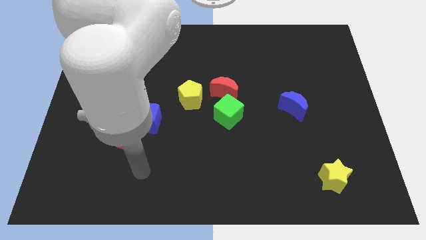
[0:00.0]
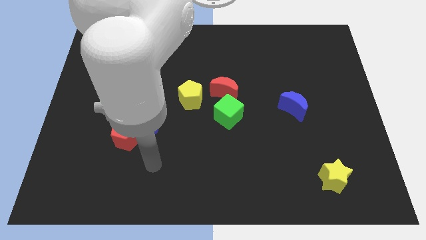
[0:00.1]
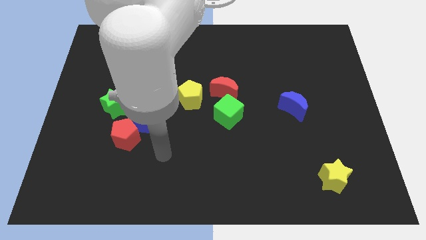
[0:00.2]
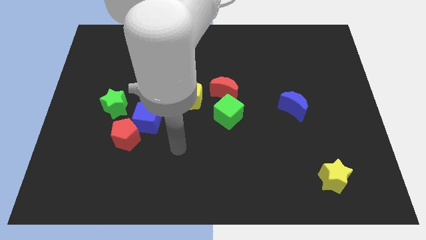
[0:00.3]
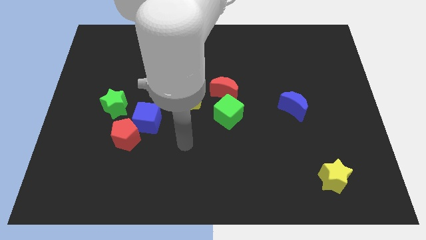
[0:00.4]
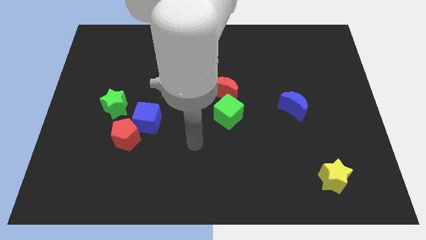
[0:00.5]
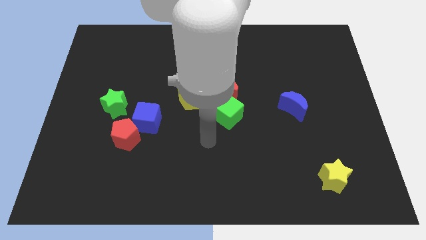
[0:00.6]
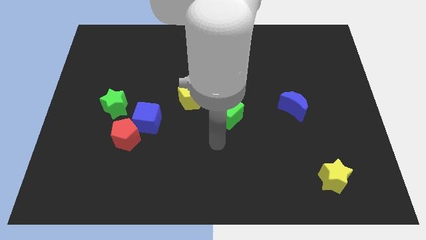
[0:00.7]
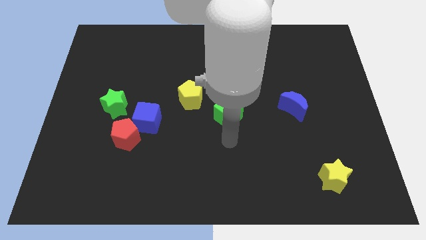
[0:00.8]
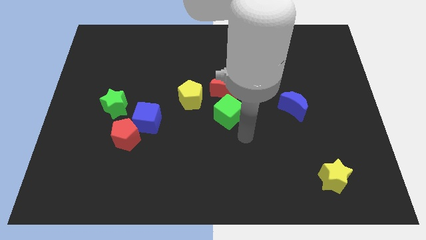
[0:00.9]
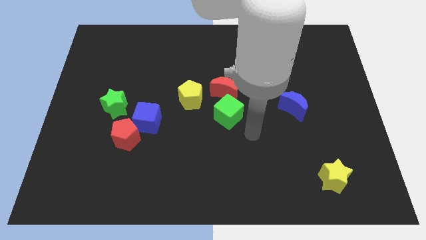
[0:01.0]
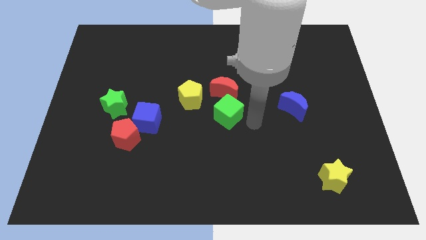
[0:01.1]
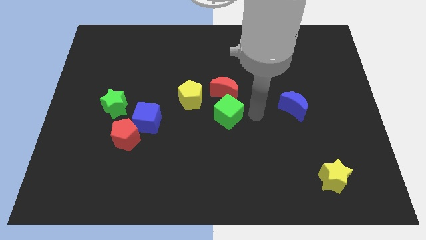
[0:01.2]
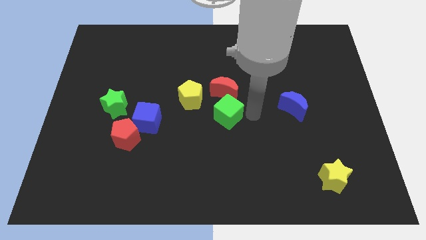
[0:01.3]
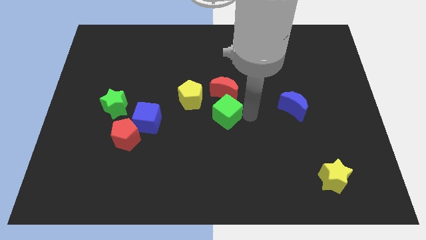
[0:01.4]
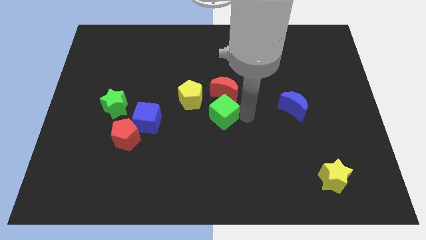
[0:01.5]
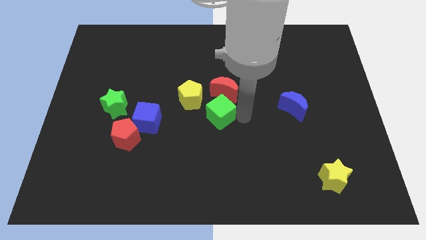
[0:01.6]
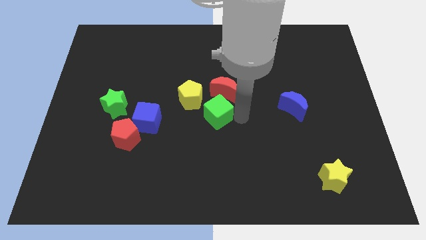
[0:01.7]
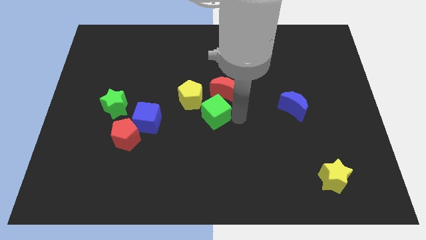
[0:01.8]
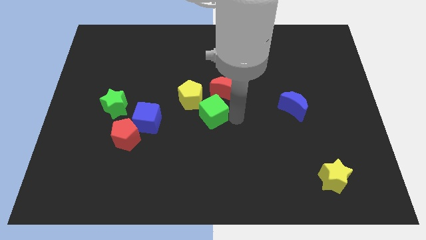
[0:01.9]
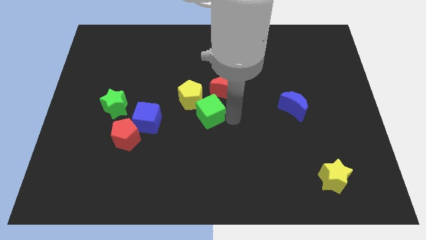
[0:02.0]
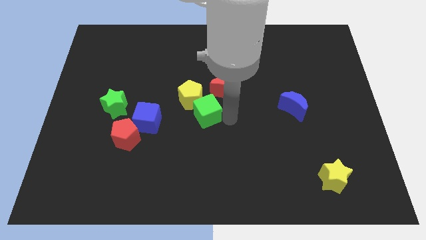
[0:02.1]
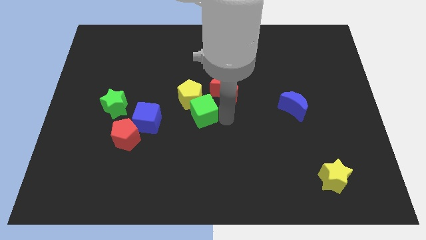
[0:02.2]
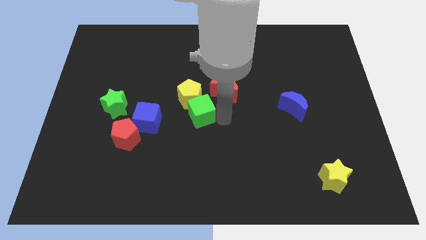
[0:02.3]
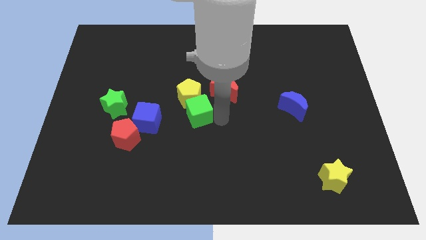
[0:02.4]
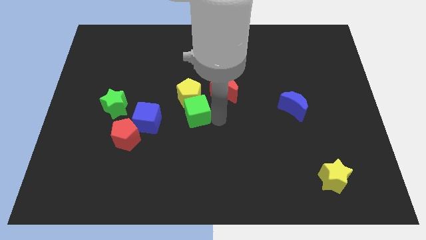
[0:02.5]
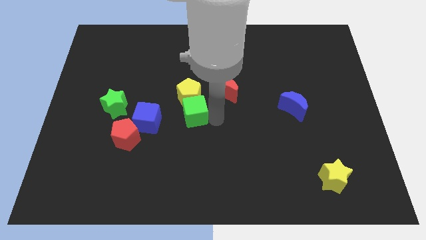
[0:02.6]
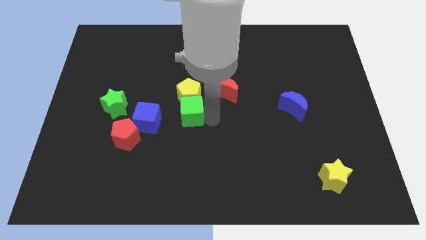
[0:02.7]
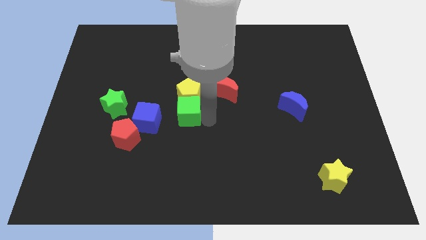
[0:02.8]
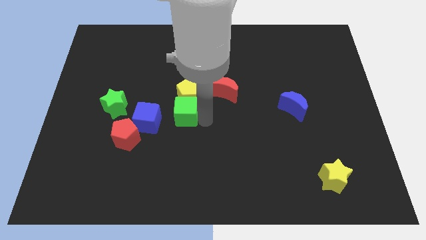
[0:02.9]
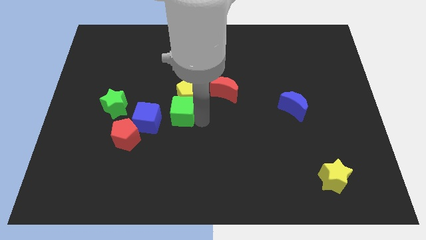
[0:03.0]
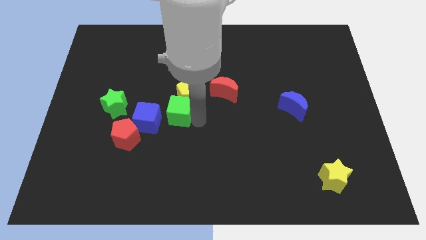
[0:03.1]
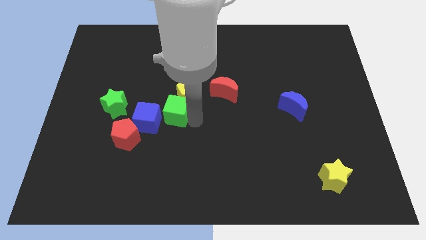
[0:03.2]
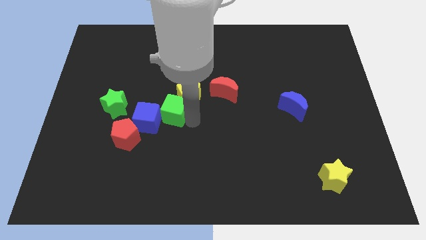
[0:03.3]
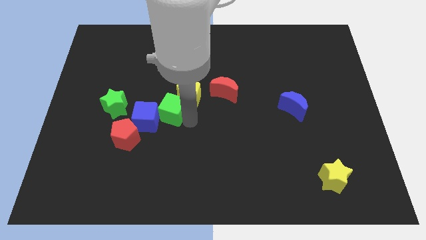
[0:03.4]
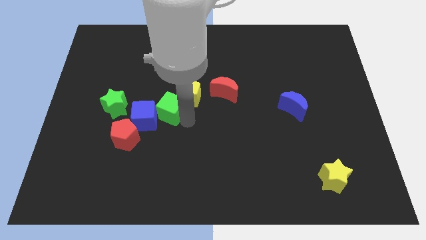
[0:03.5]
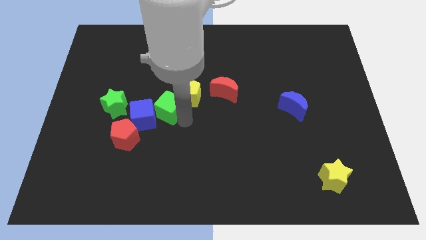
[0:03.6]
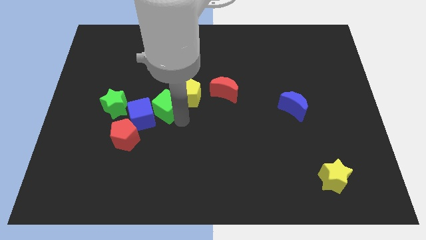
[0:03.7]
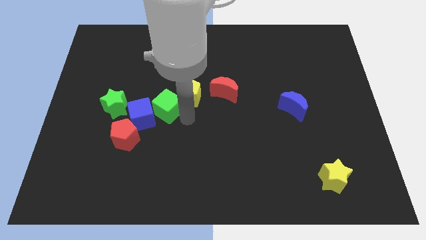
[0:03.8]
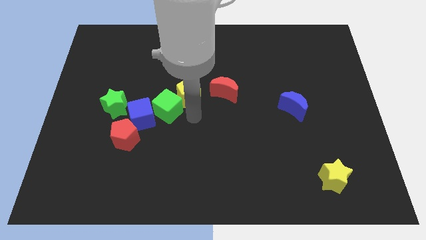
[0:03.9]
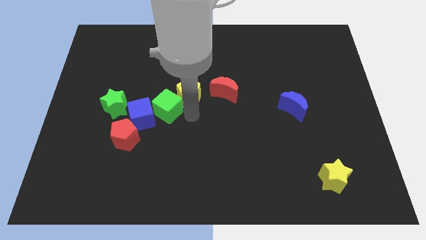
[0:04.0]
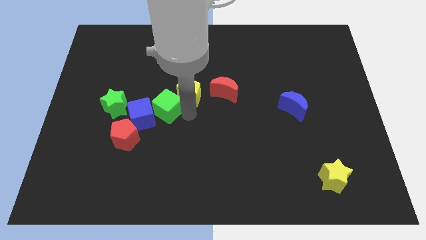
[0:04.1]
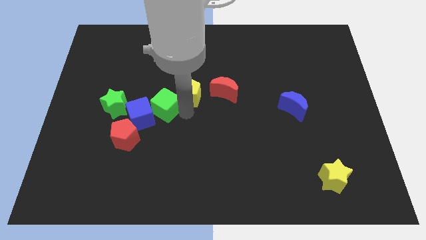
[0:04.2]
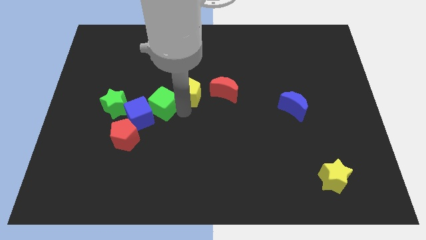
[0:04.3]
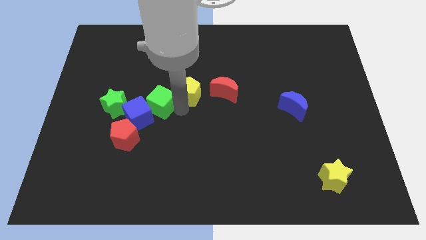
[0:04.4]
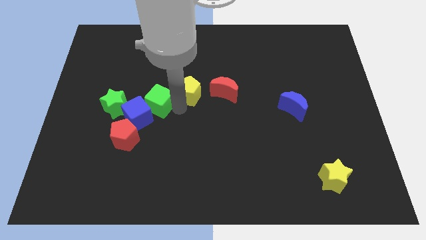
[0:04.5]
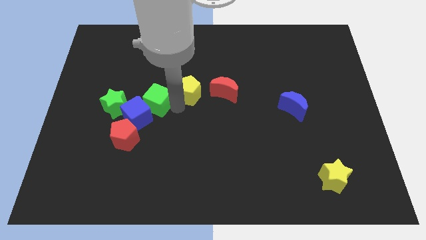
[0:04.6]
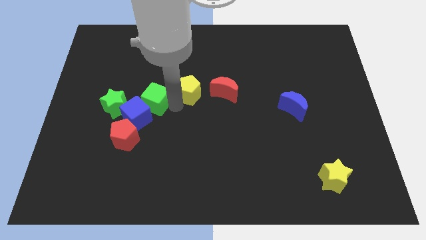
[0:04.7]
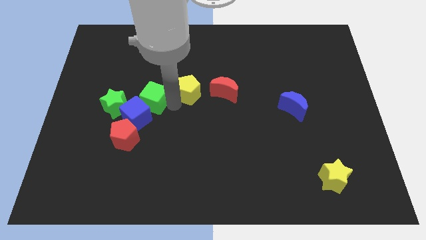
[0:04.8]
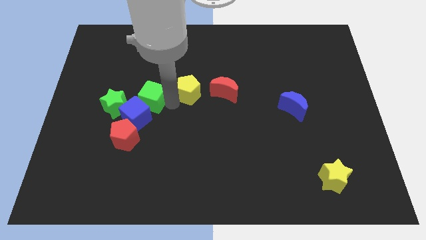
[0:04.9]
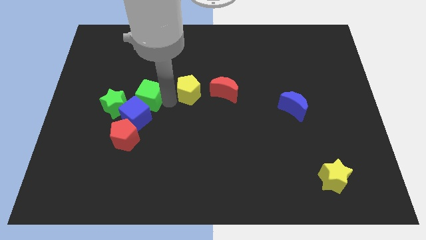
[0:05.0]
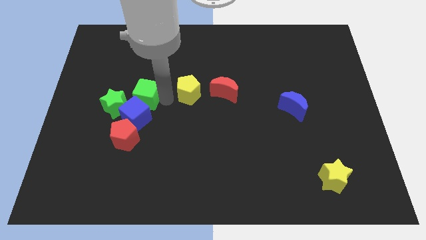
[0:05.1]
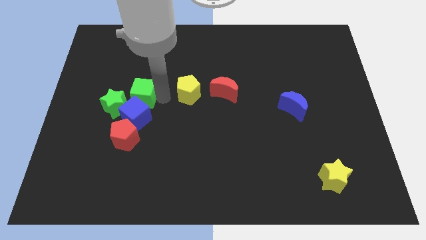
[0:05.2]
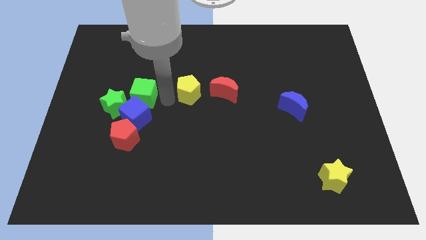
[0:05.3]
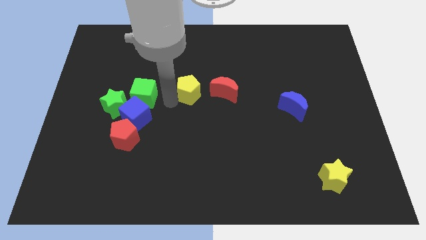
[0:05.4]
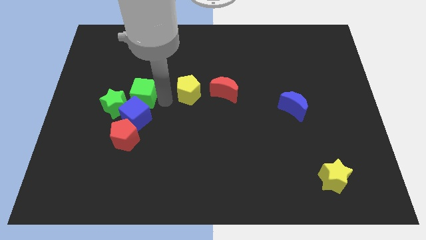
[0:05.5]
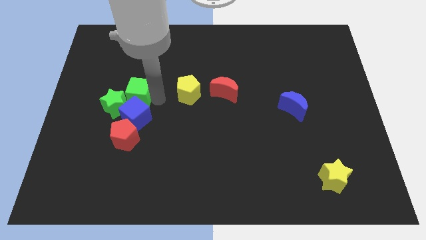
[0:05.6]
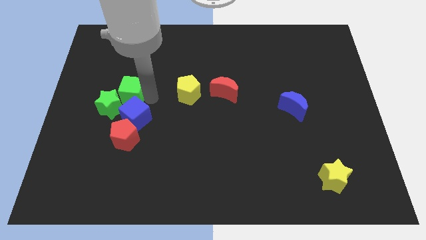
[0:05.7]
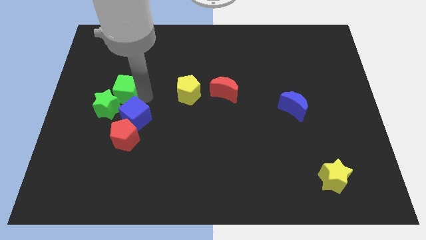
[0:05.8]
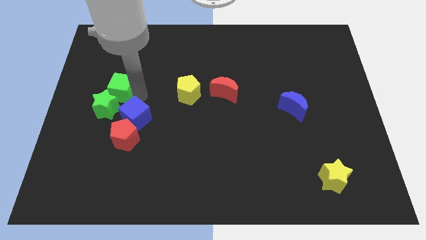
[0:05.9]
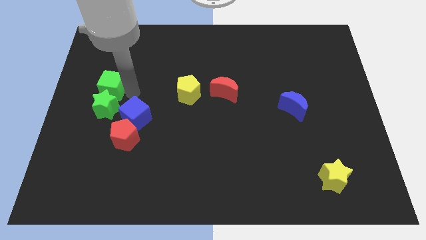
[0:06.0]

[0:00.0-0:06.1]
put the green cube diagonally up and to the left of the green star
